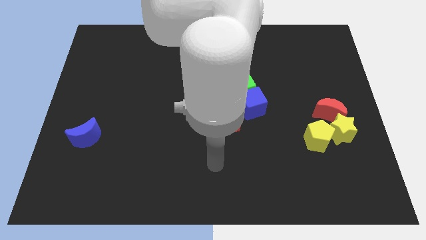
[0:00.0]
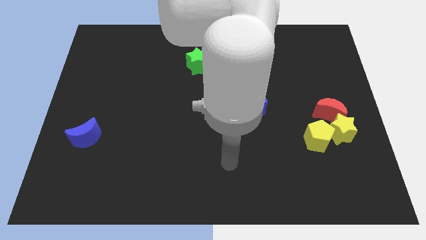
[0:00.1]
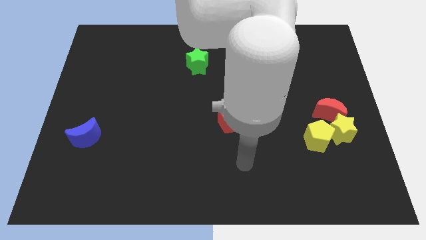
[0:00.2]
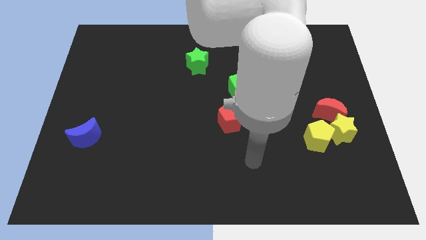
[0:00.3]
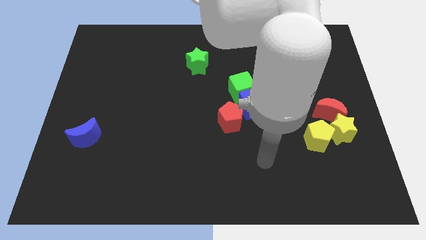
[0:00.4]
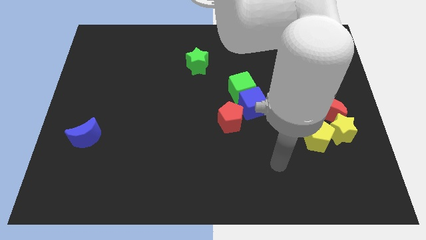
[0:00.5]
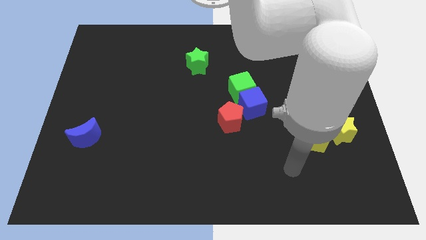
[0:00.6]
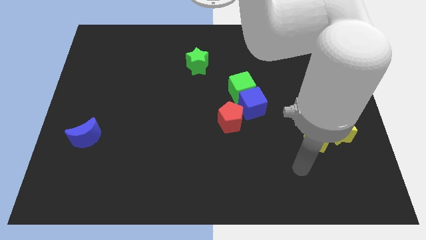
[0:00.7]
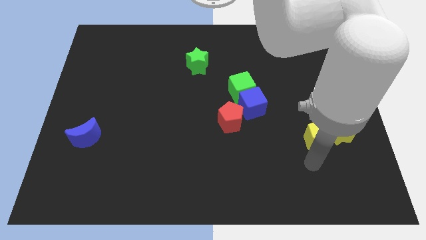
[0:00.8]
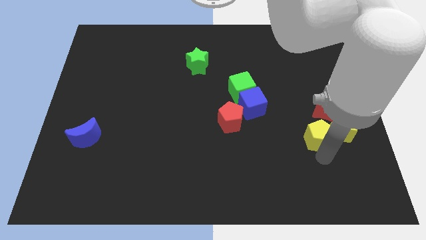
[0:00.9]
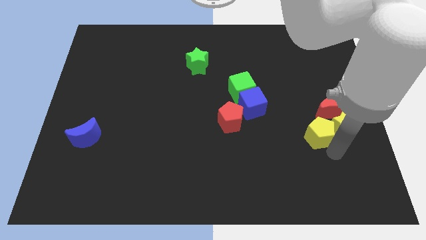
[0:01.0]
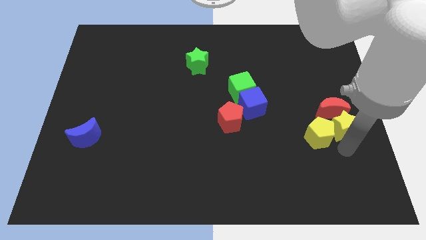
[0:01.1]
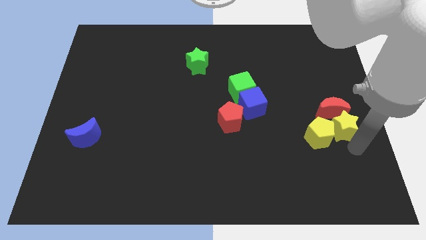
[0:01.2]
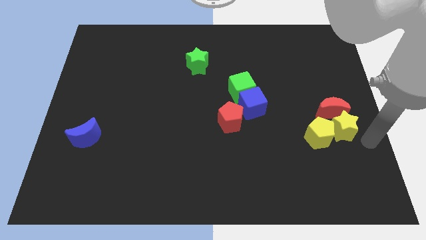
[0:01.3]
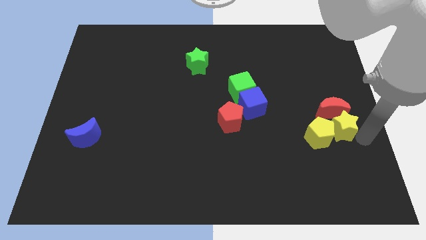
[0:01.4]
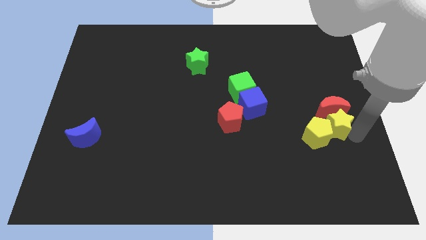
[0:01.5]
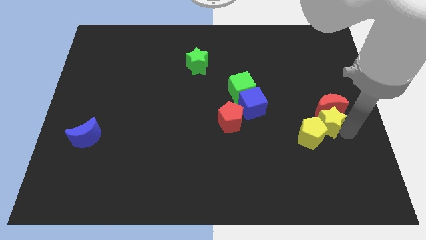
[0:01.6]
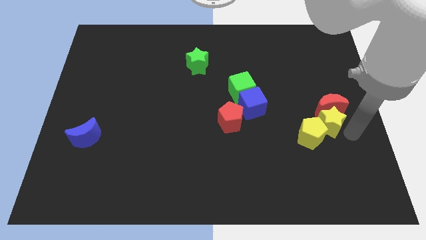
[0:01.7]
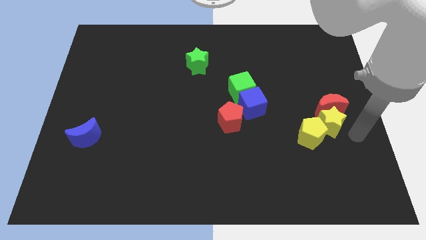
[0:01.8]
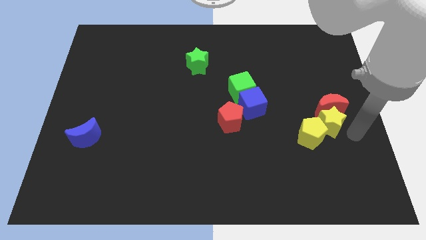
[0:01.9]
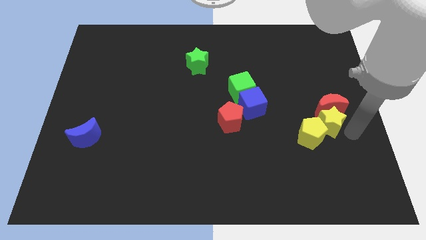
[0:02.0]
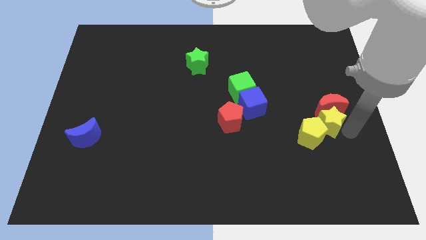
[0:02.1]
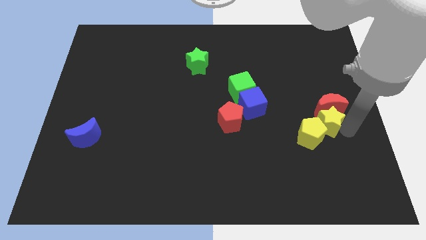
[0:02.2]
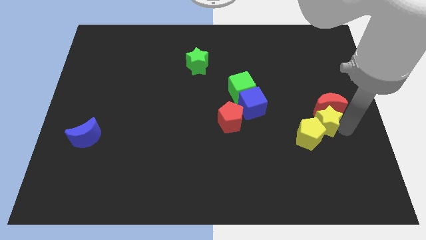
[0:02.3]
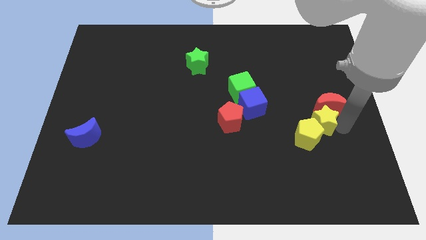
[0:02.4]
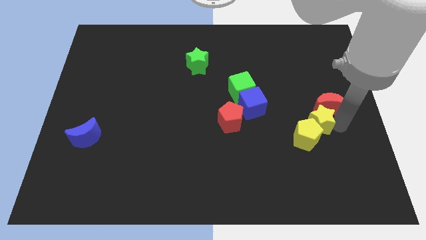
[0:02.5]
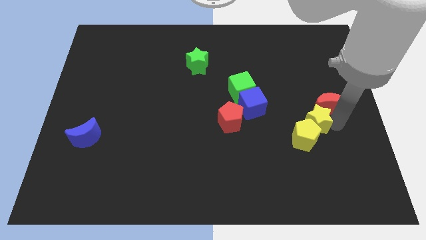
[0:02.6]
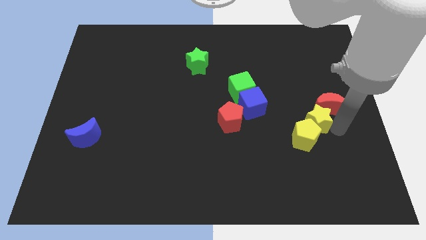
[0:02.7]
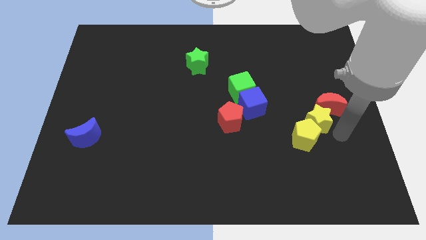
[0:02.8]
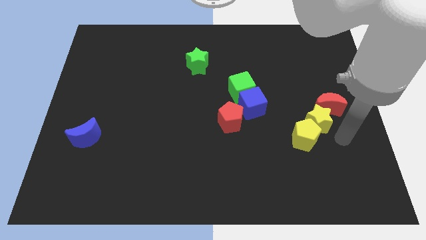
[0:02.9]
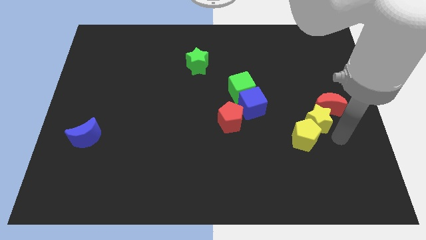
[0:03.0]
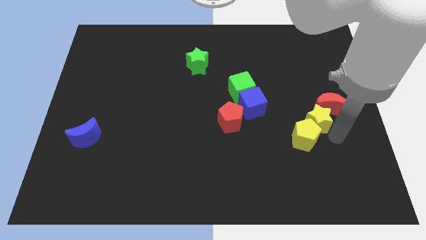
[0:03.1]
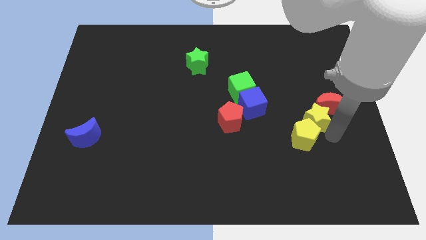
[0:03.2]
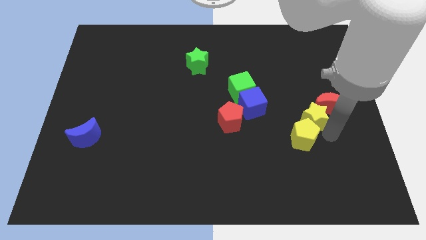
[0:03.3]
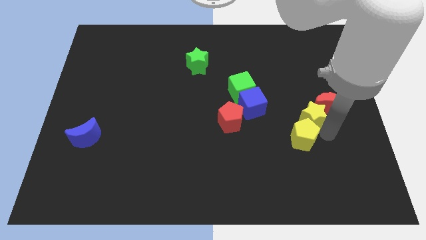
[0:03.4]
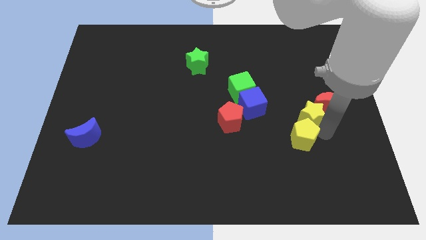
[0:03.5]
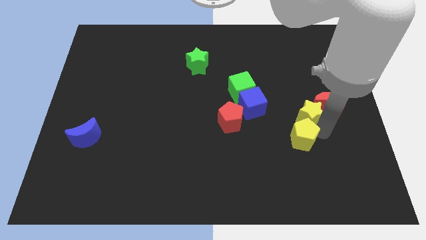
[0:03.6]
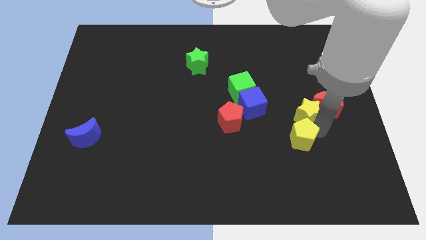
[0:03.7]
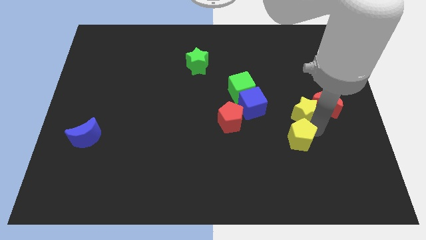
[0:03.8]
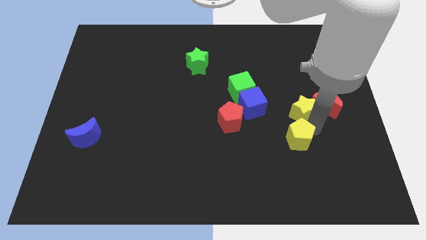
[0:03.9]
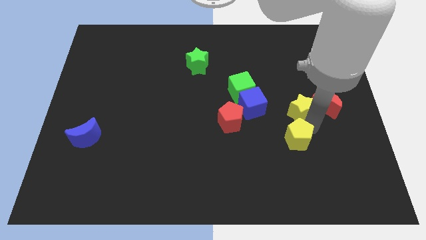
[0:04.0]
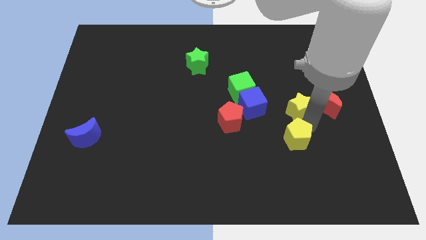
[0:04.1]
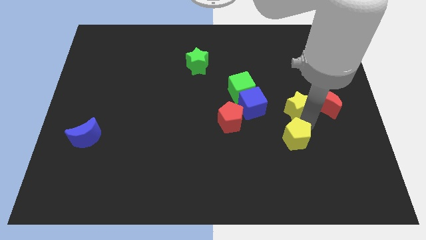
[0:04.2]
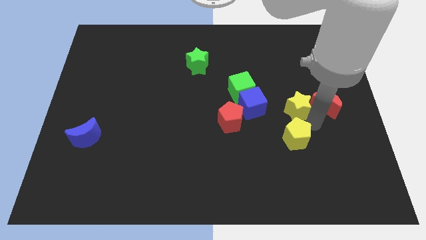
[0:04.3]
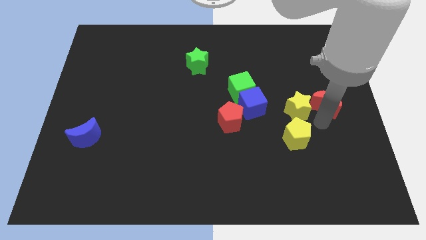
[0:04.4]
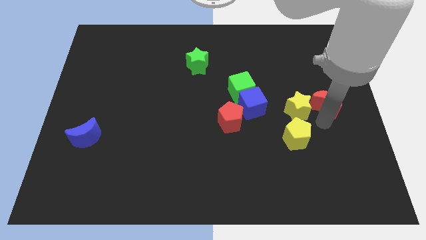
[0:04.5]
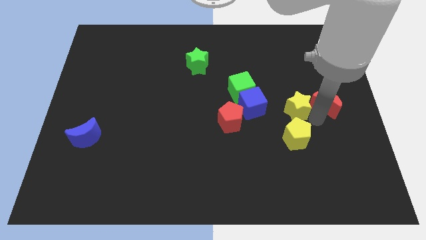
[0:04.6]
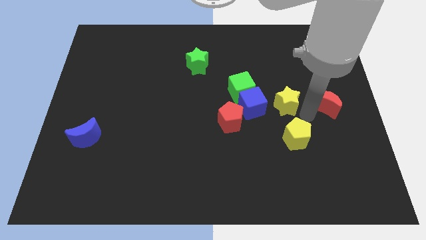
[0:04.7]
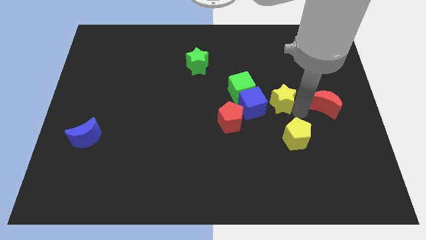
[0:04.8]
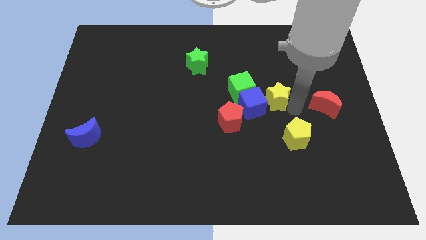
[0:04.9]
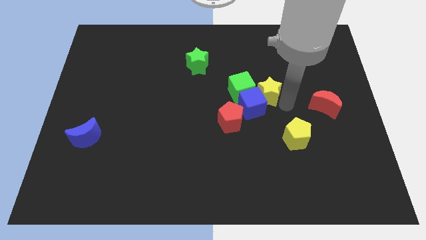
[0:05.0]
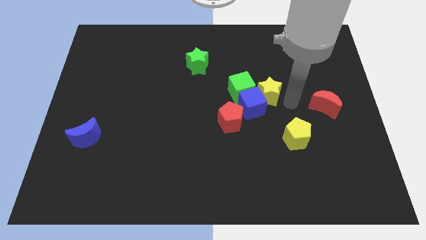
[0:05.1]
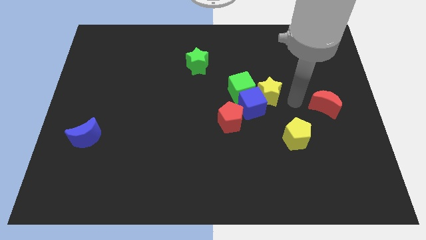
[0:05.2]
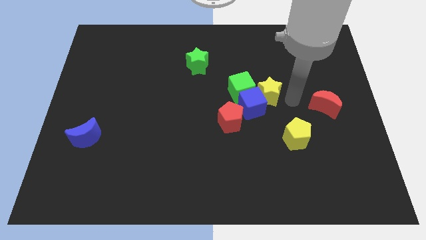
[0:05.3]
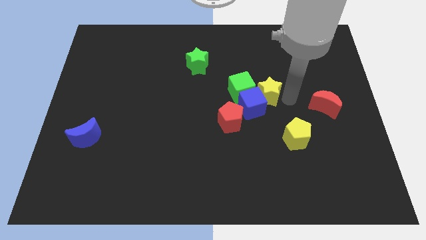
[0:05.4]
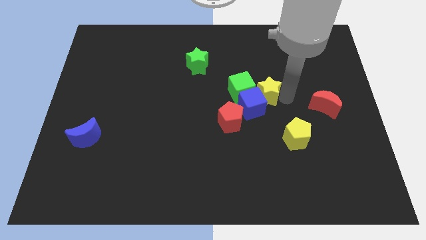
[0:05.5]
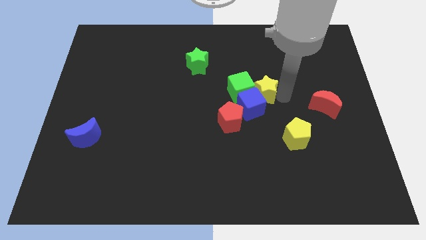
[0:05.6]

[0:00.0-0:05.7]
push the yellow star close to the green cube

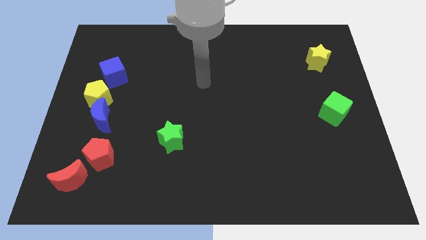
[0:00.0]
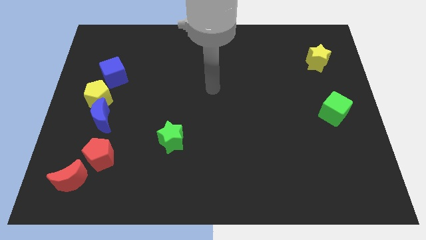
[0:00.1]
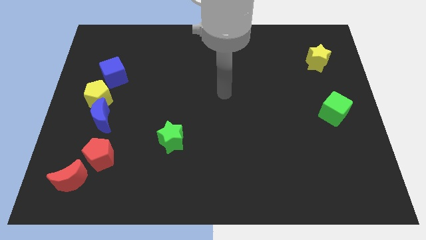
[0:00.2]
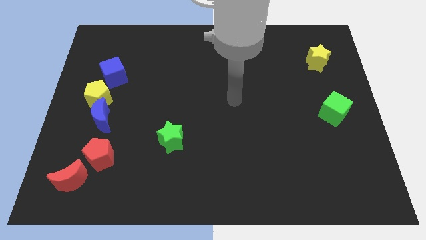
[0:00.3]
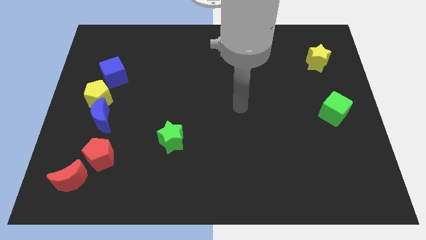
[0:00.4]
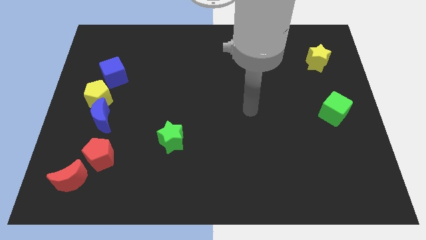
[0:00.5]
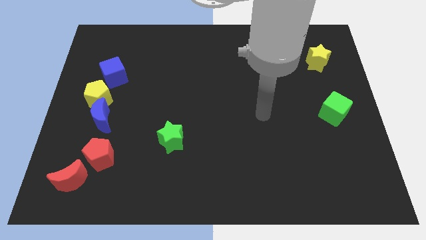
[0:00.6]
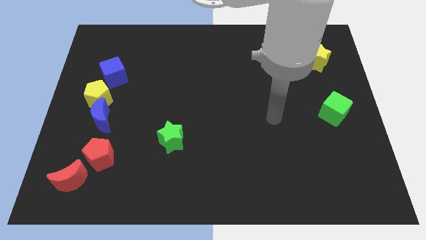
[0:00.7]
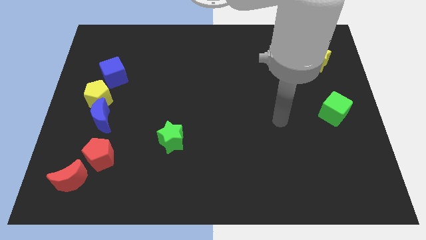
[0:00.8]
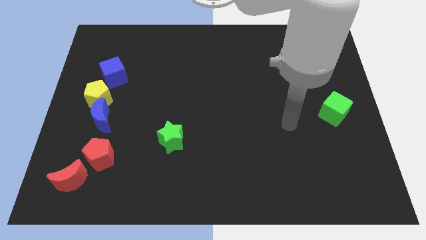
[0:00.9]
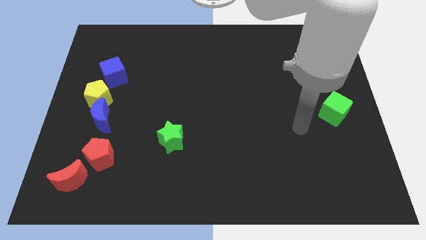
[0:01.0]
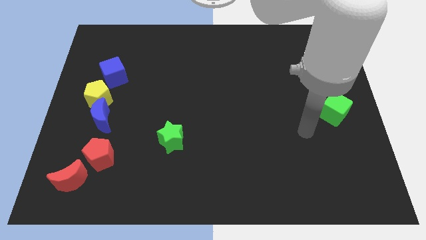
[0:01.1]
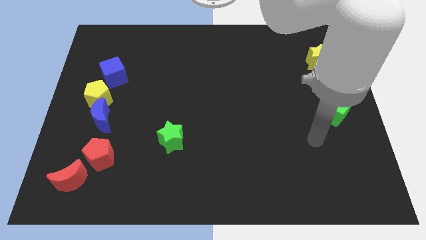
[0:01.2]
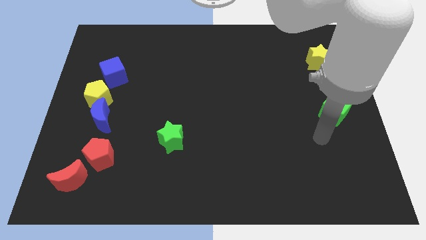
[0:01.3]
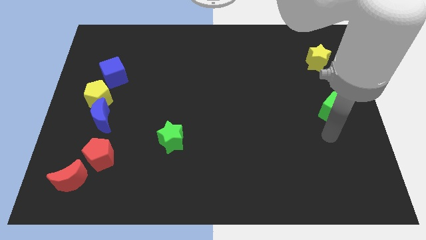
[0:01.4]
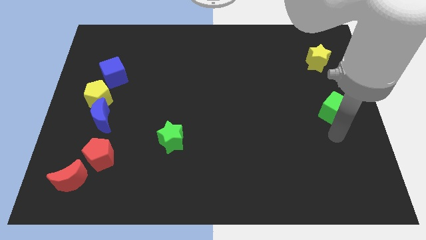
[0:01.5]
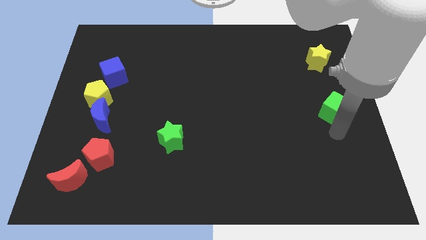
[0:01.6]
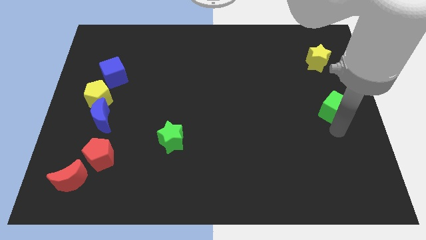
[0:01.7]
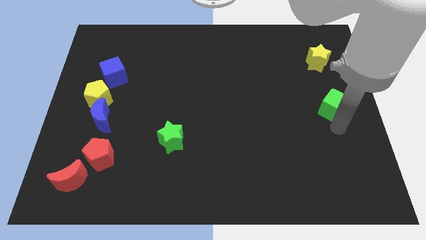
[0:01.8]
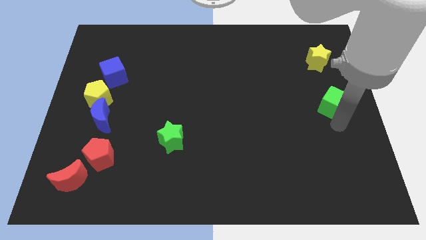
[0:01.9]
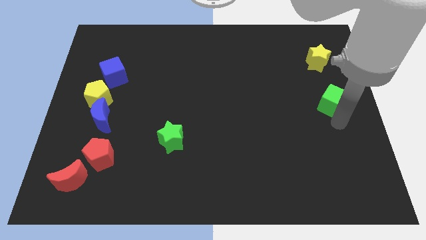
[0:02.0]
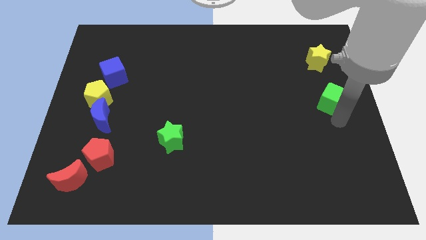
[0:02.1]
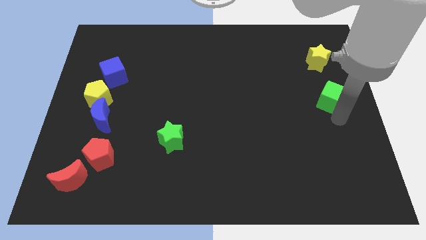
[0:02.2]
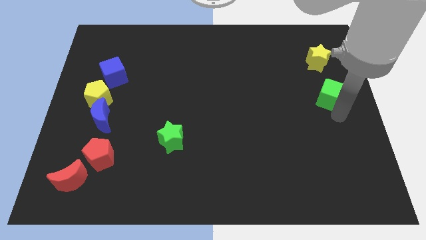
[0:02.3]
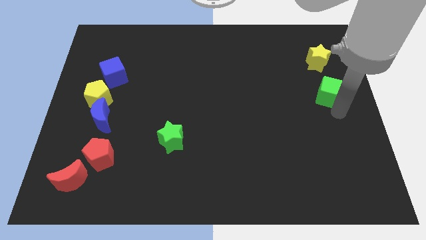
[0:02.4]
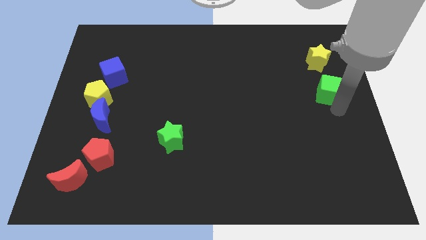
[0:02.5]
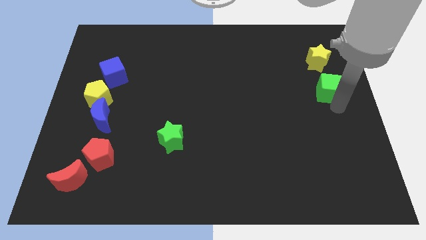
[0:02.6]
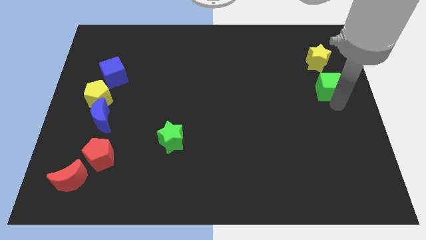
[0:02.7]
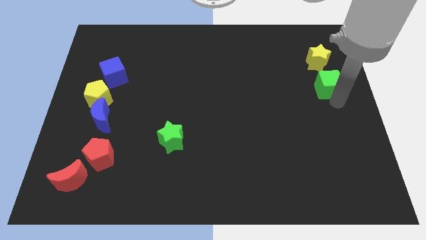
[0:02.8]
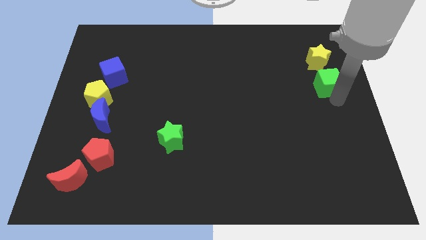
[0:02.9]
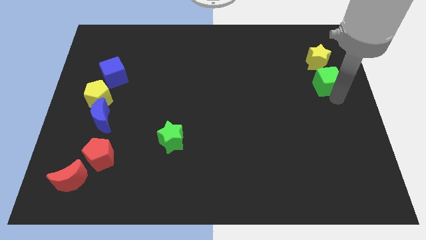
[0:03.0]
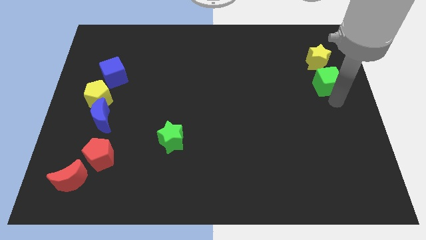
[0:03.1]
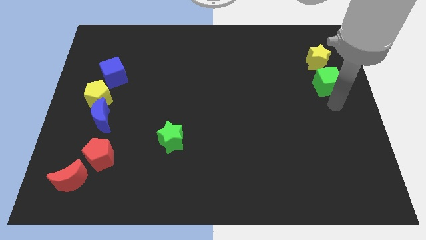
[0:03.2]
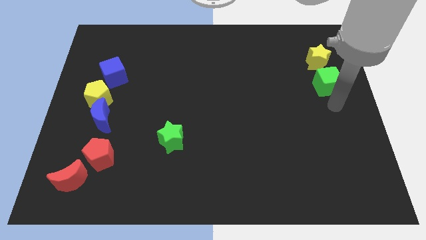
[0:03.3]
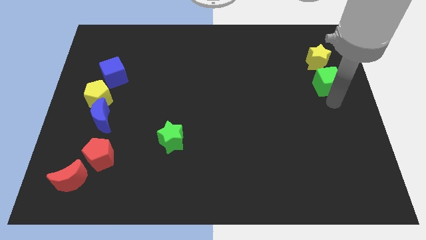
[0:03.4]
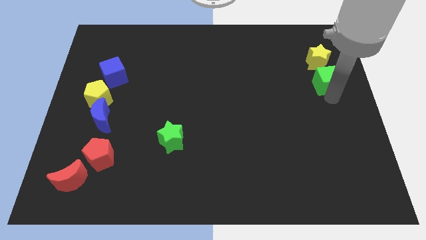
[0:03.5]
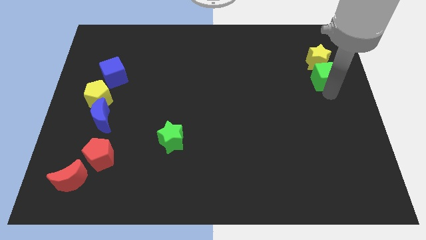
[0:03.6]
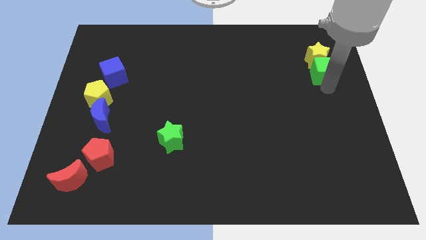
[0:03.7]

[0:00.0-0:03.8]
put the green cube to the yellow star
